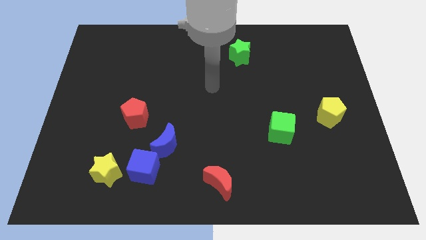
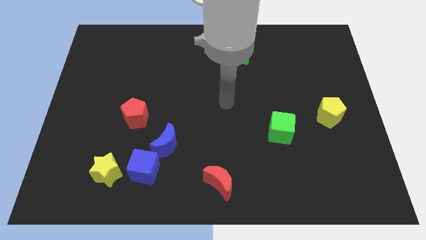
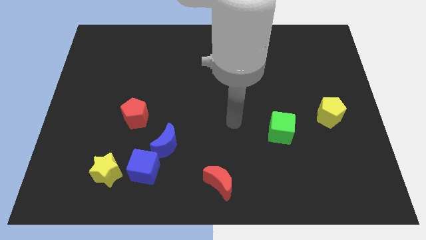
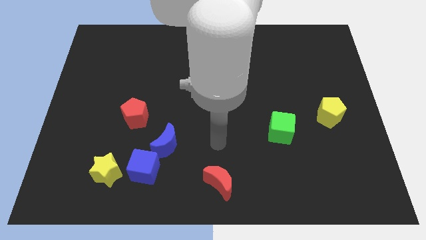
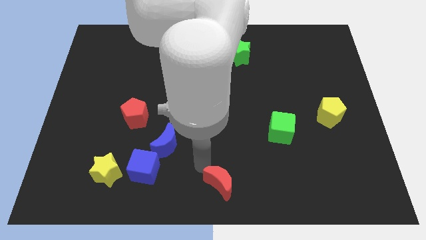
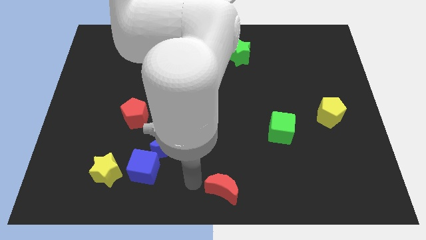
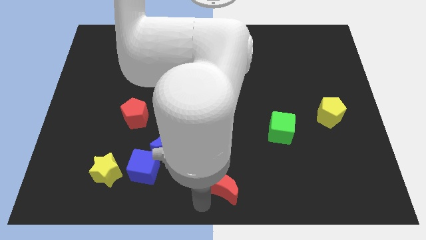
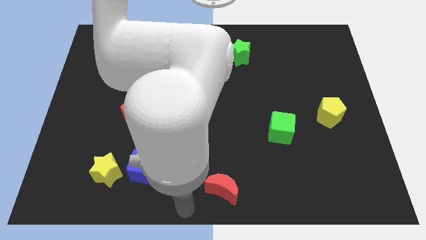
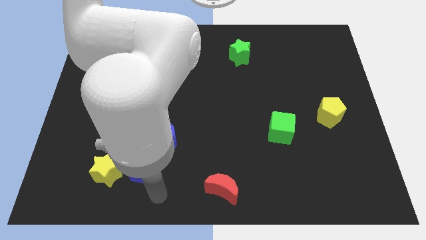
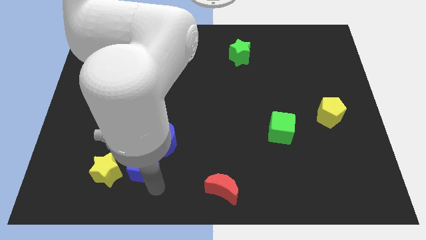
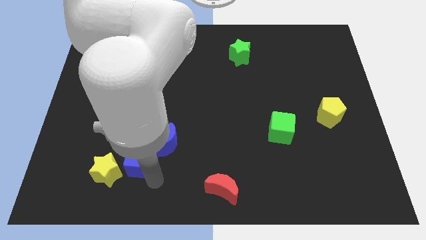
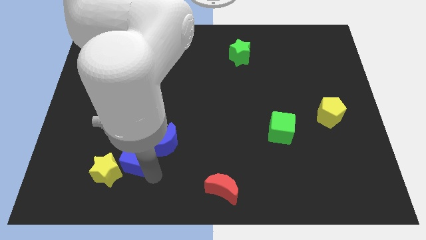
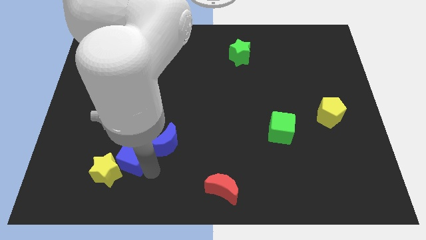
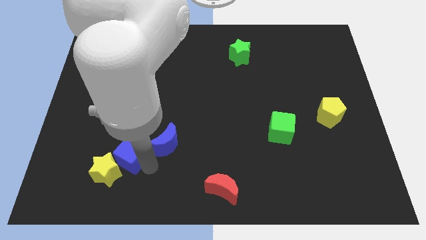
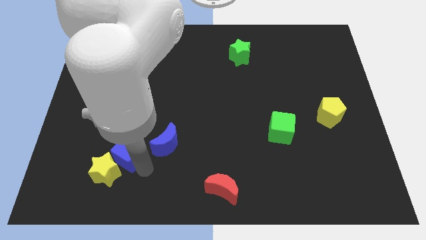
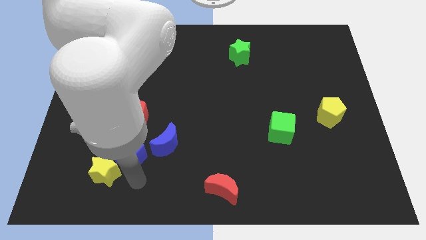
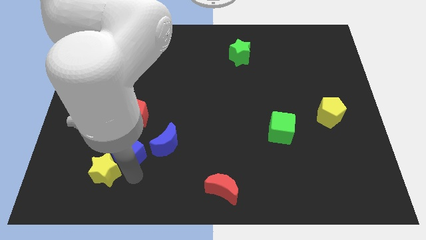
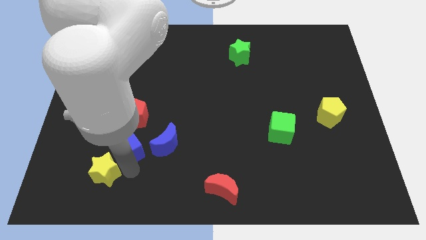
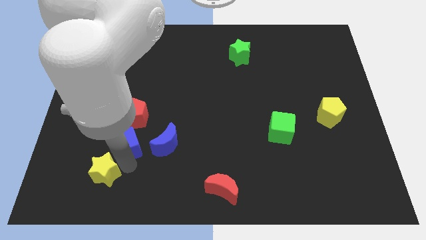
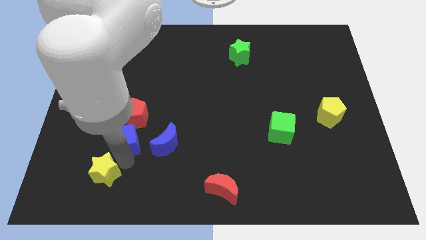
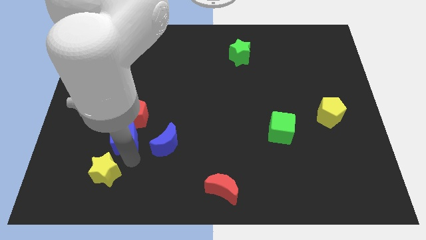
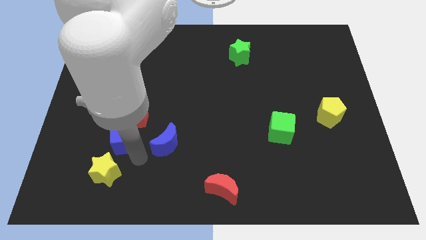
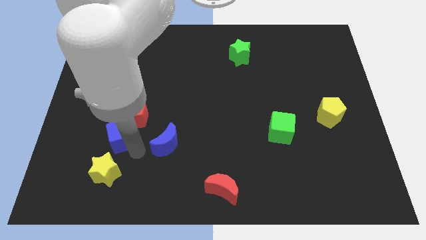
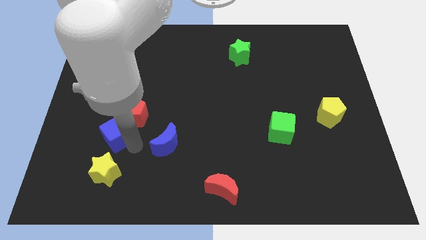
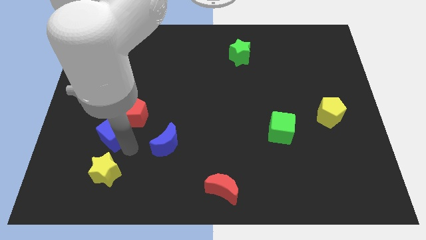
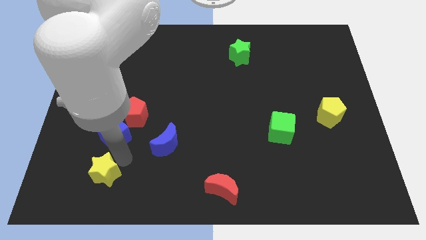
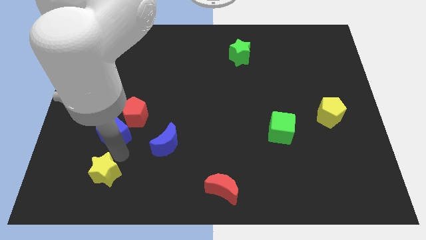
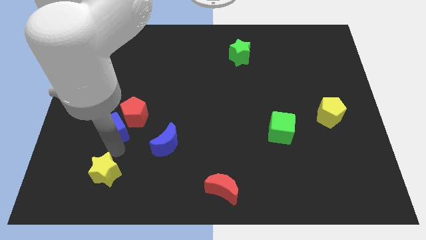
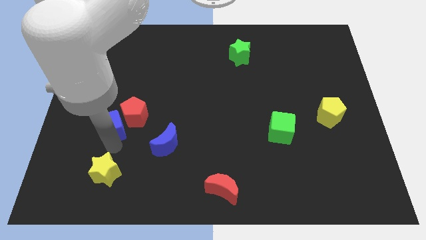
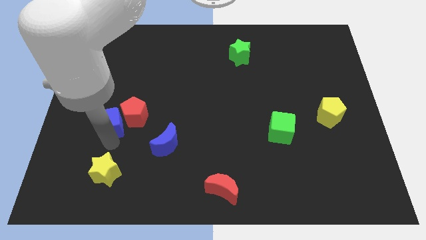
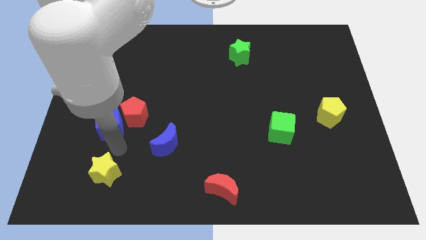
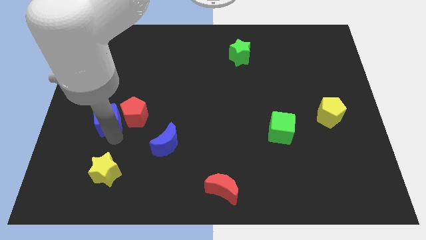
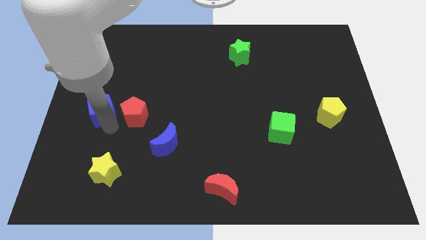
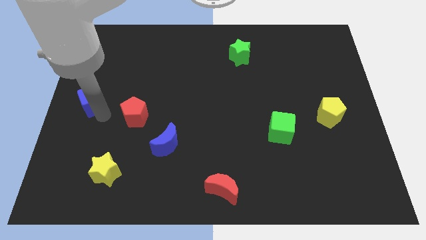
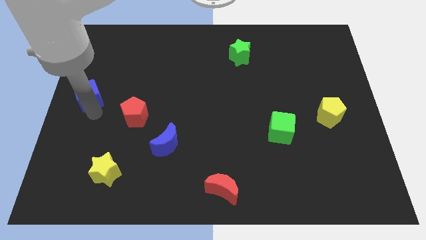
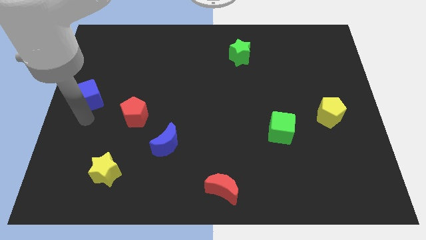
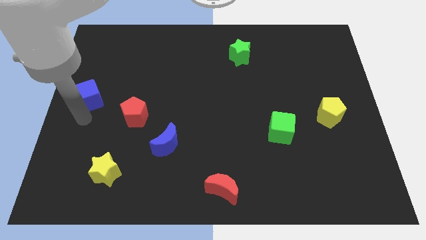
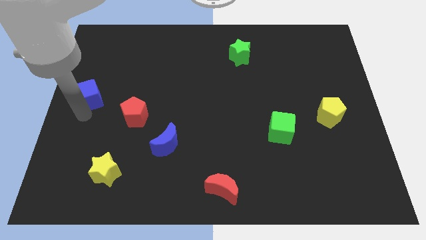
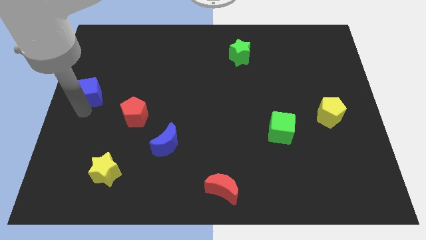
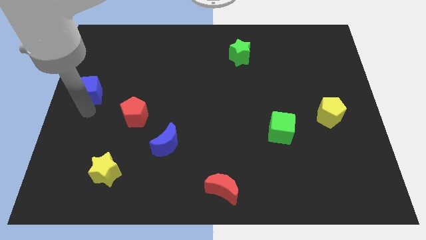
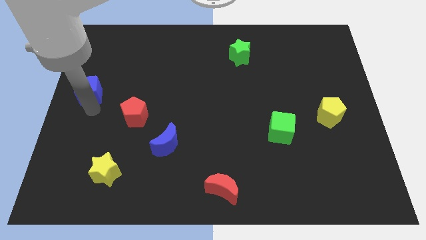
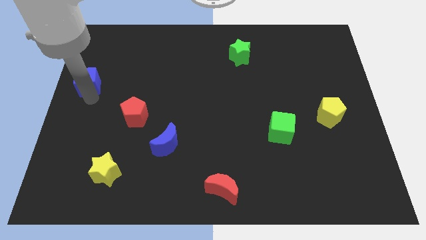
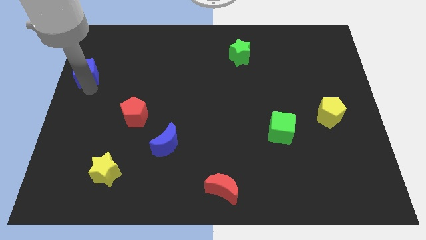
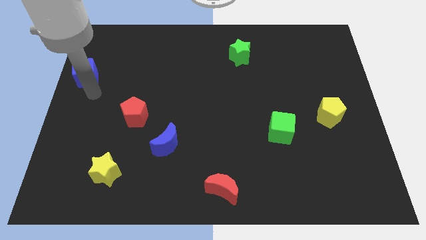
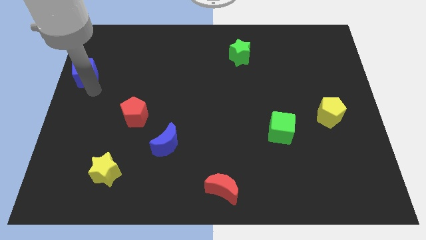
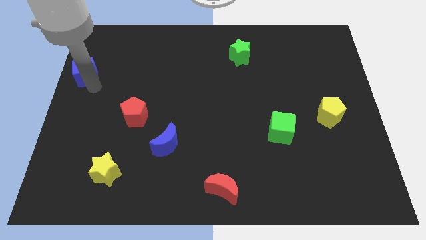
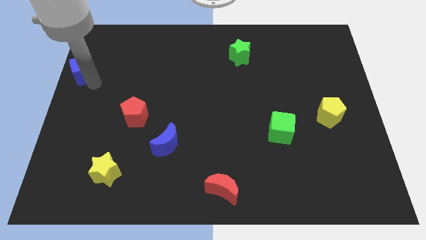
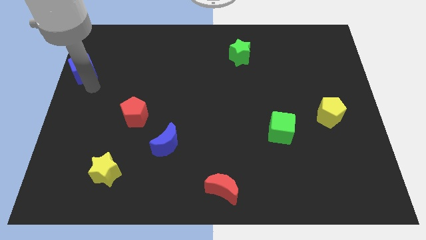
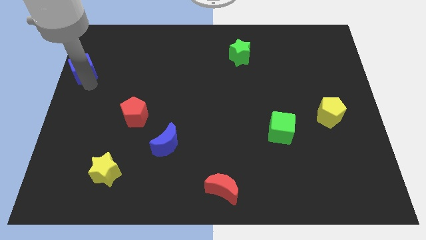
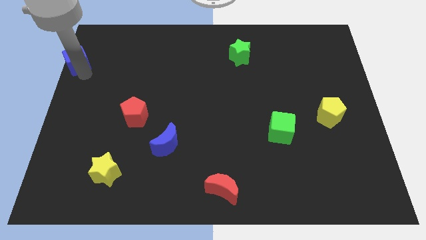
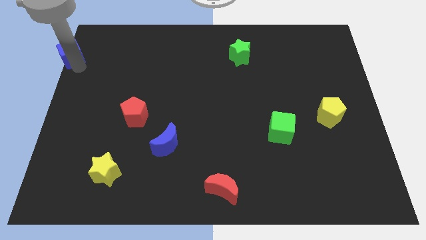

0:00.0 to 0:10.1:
move the blue cube to the top left corner

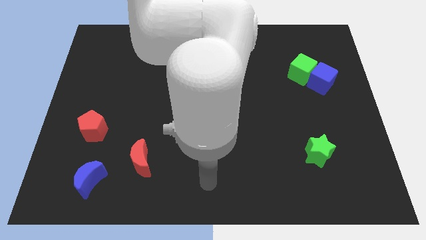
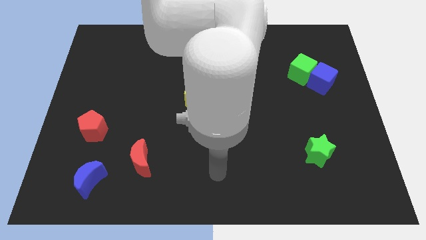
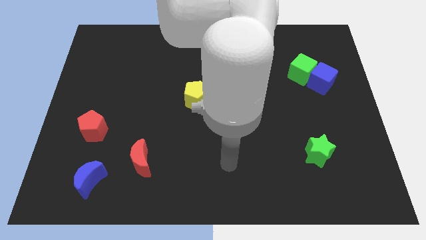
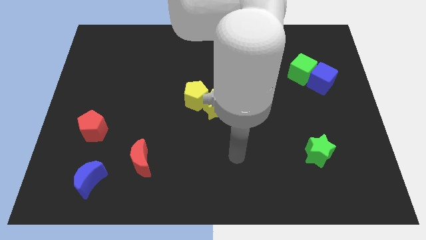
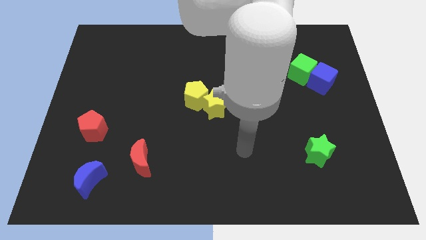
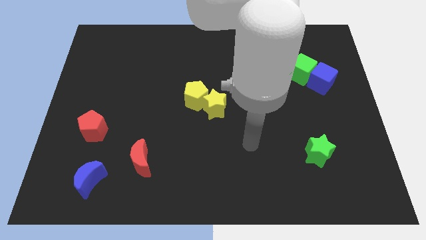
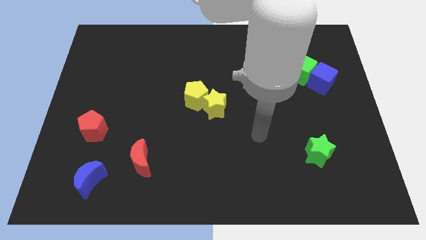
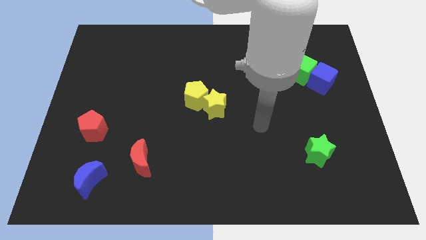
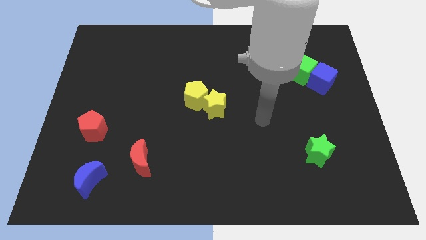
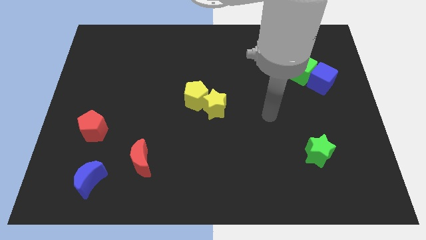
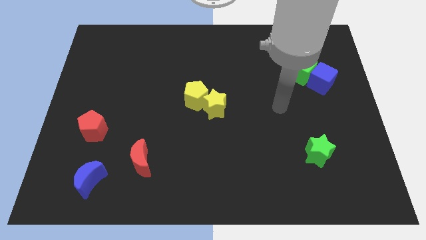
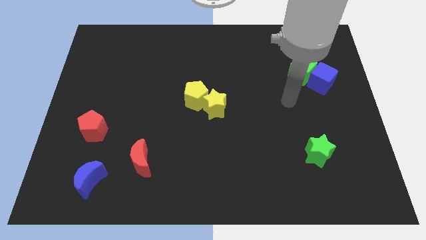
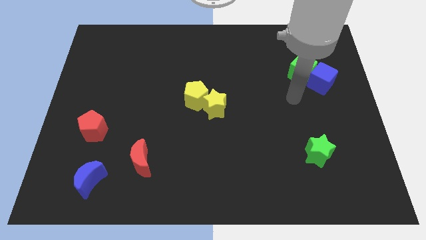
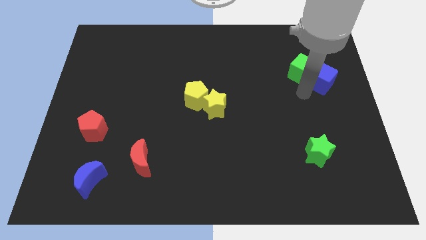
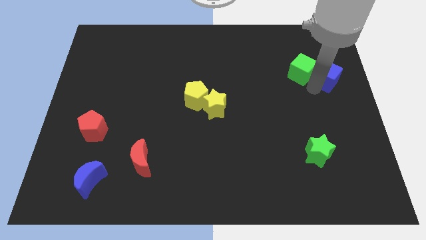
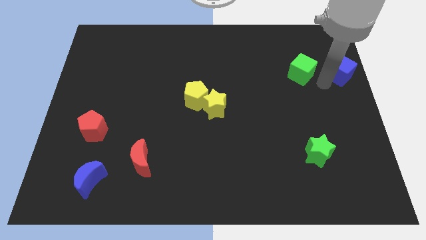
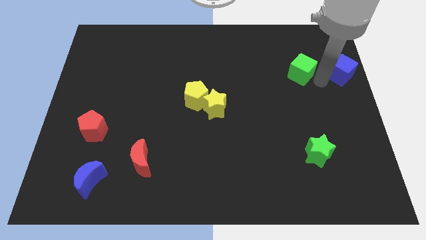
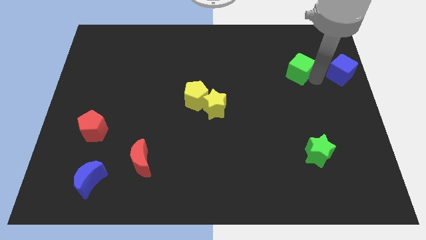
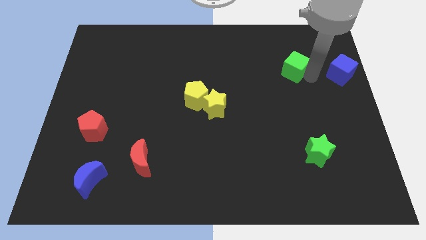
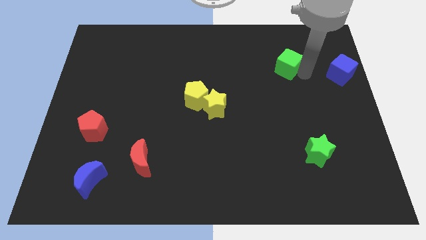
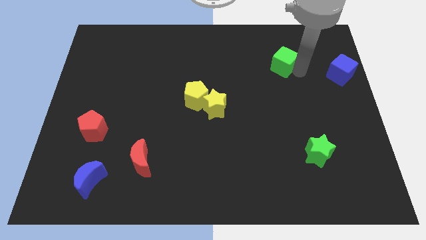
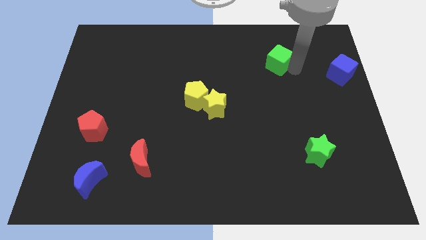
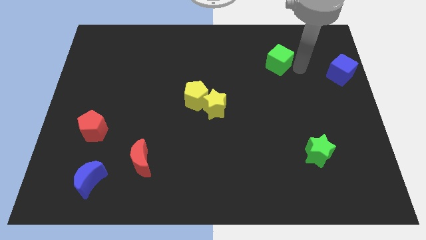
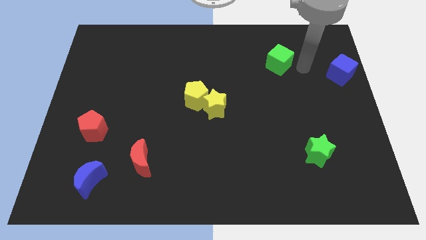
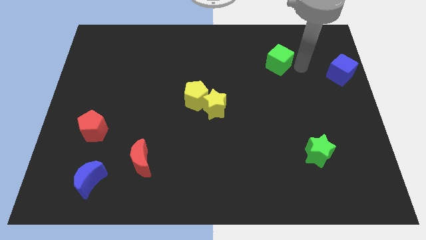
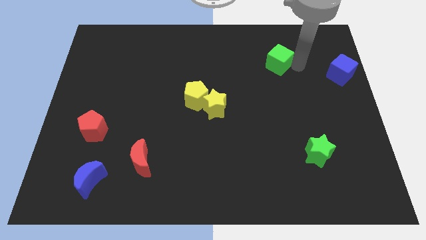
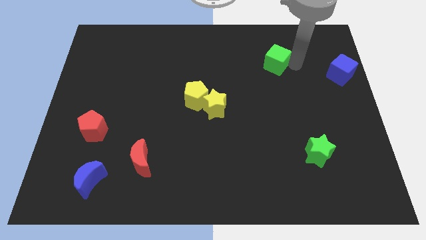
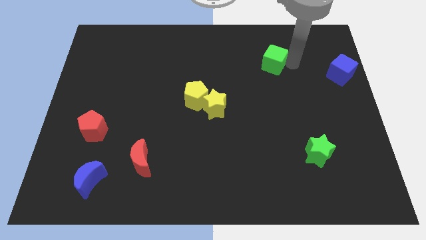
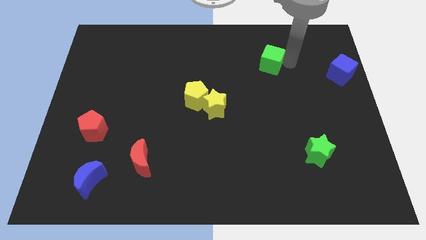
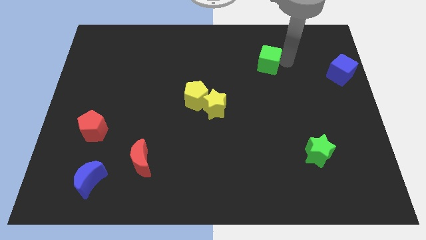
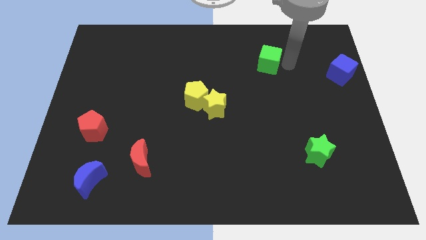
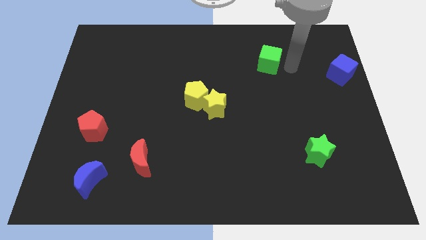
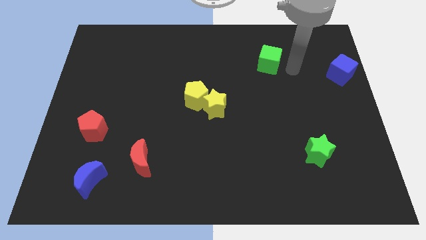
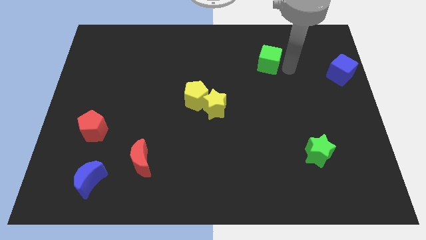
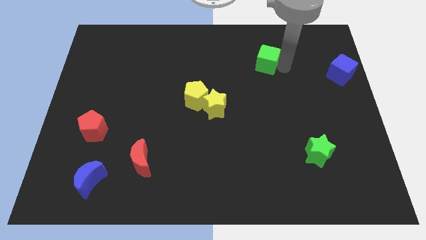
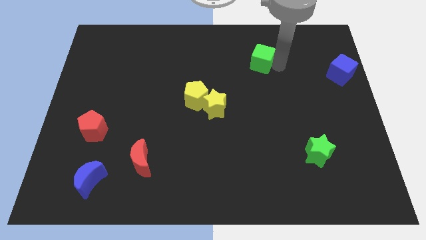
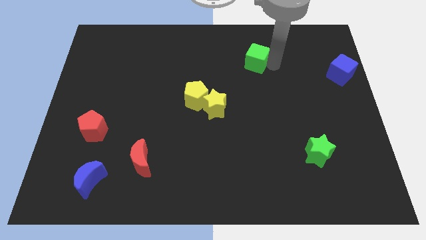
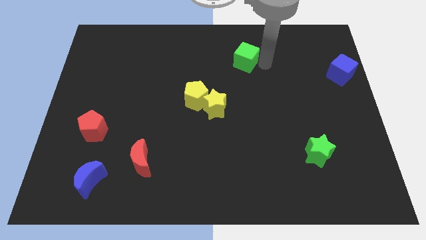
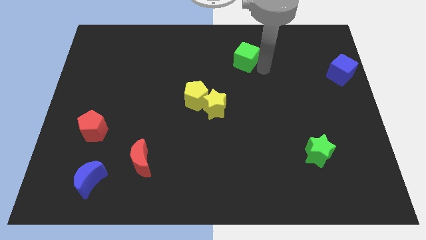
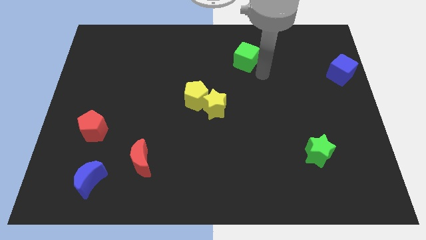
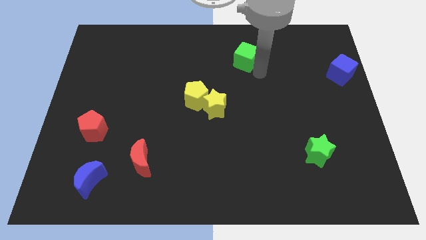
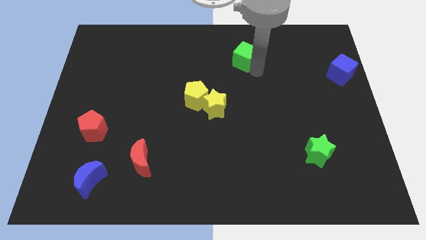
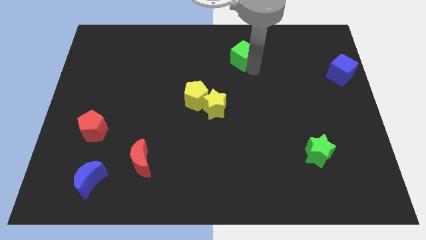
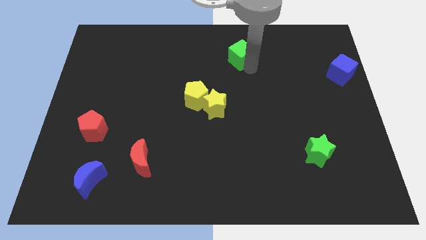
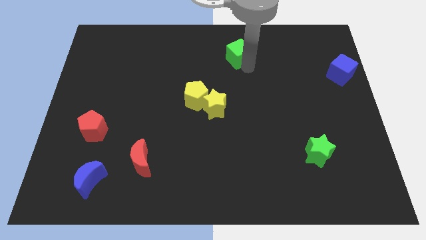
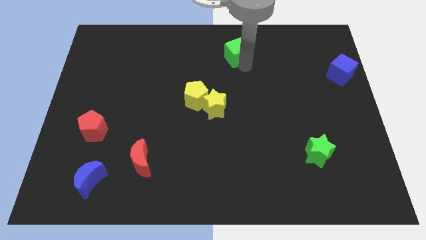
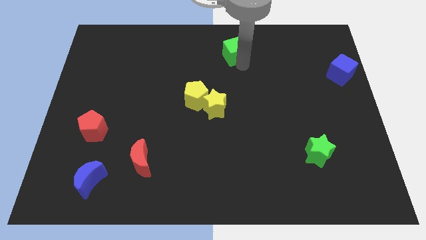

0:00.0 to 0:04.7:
put the green cube to the top side
